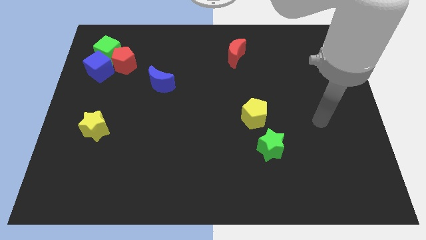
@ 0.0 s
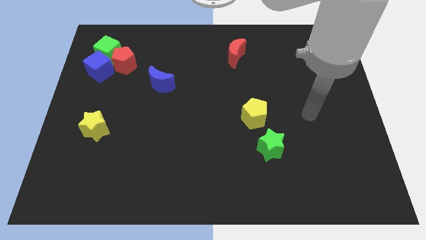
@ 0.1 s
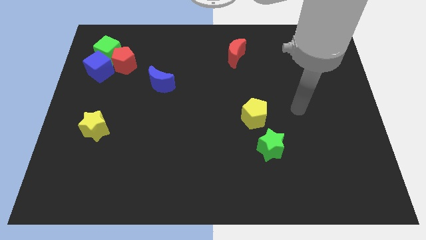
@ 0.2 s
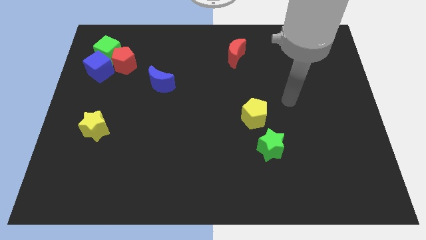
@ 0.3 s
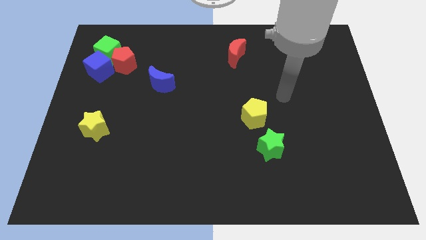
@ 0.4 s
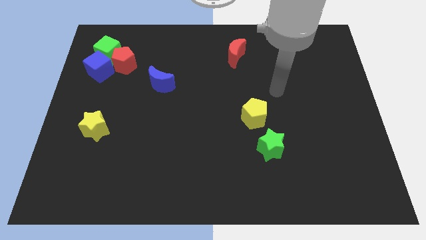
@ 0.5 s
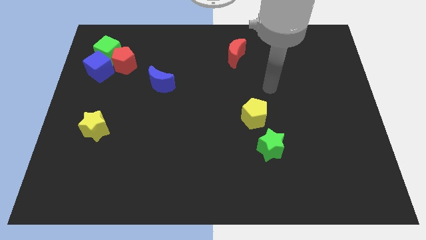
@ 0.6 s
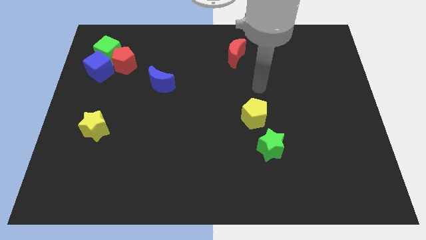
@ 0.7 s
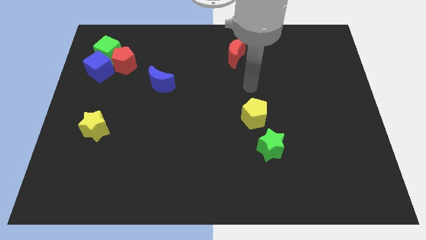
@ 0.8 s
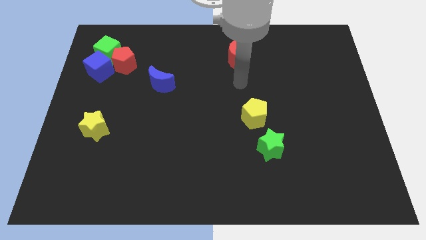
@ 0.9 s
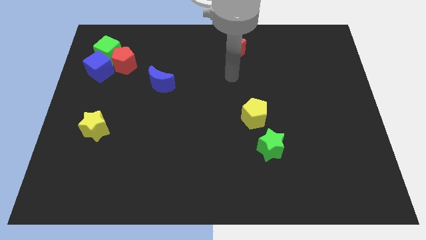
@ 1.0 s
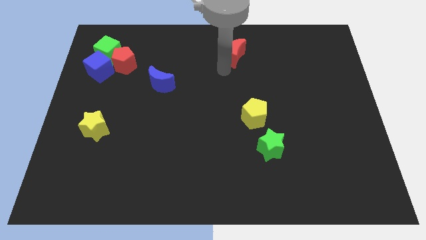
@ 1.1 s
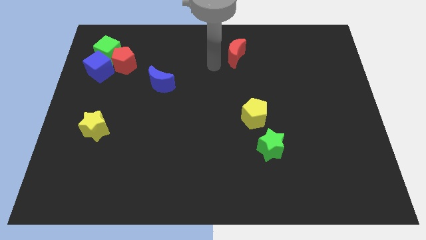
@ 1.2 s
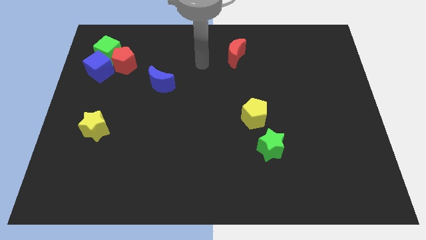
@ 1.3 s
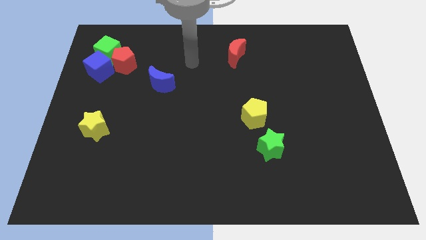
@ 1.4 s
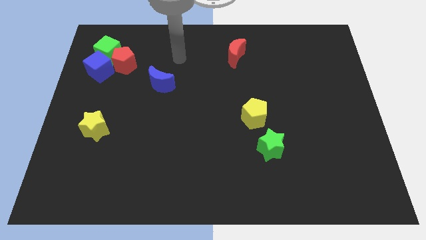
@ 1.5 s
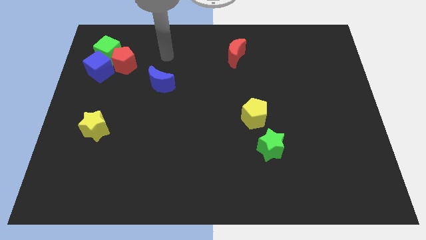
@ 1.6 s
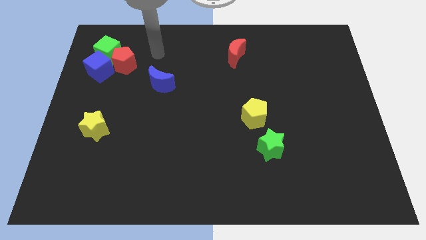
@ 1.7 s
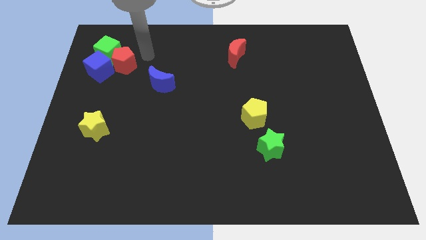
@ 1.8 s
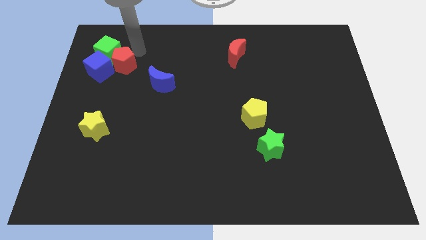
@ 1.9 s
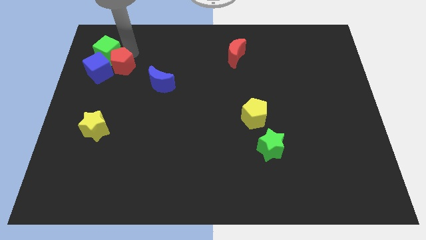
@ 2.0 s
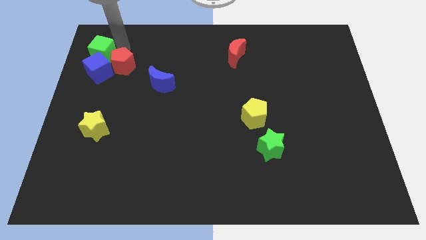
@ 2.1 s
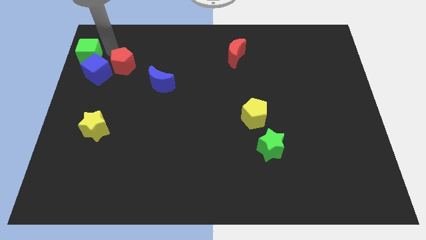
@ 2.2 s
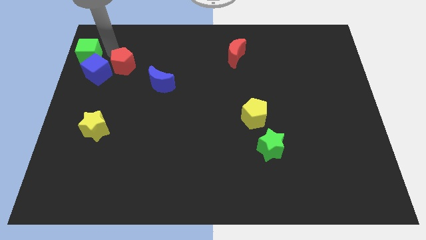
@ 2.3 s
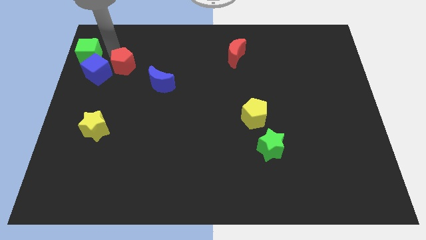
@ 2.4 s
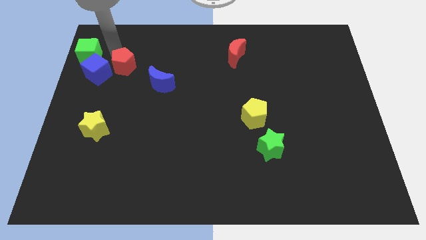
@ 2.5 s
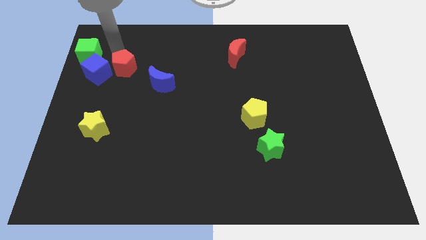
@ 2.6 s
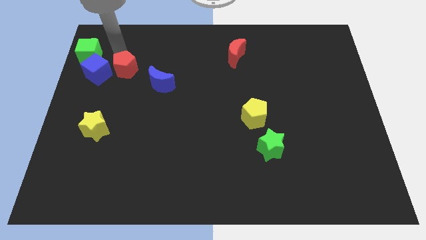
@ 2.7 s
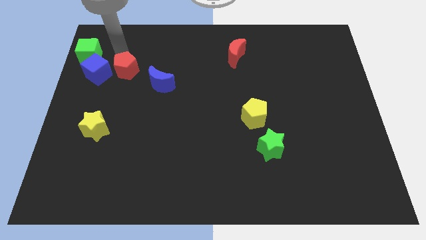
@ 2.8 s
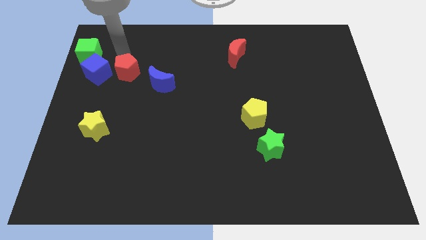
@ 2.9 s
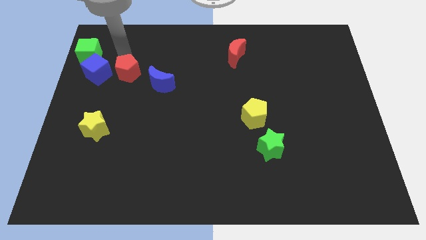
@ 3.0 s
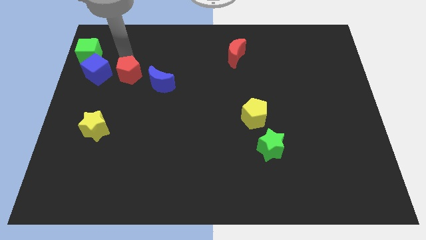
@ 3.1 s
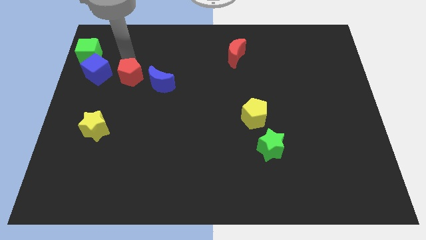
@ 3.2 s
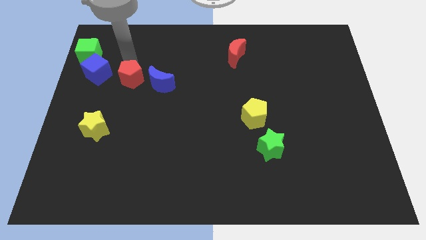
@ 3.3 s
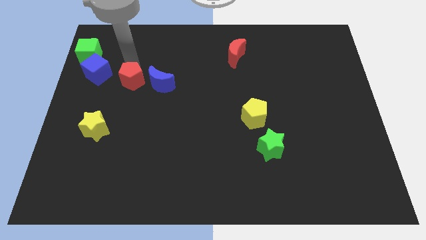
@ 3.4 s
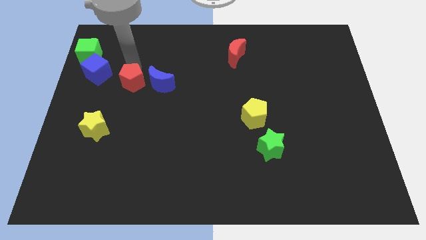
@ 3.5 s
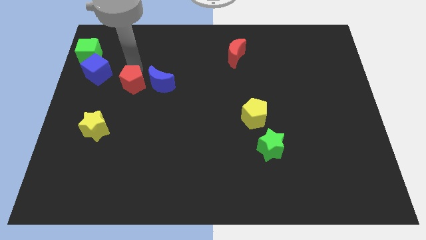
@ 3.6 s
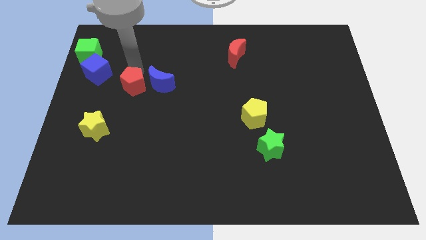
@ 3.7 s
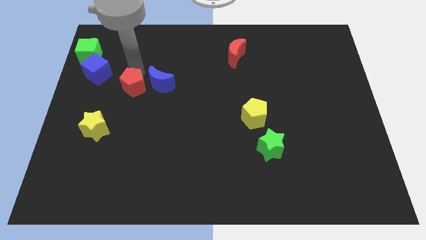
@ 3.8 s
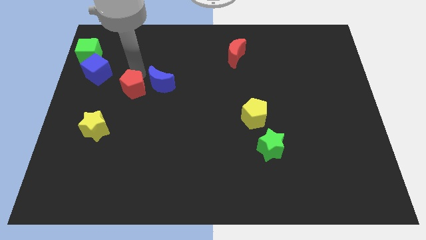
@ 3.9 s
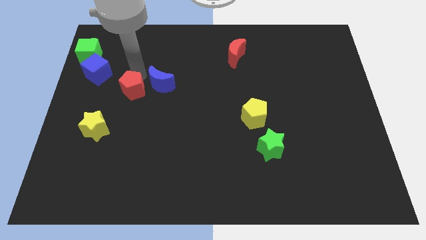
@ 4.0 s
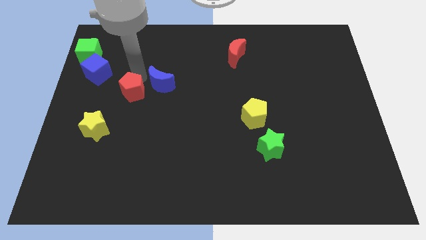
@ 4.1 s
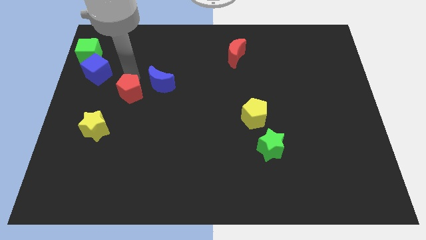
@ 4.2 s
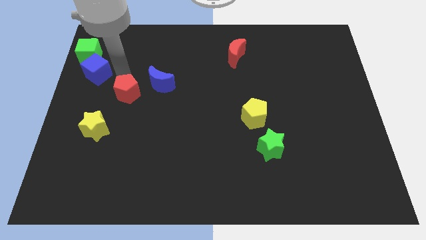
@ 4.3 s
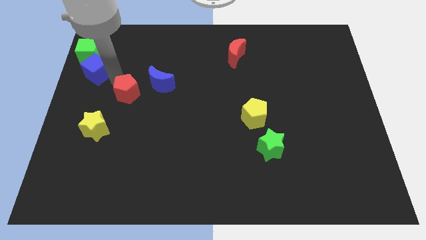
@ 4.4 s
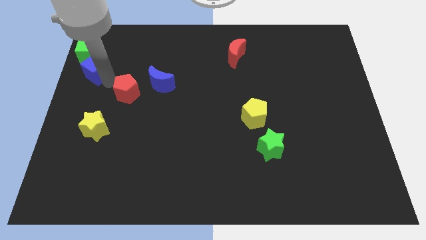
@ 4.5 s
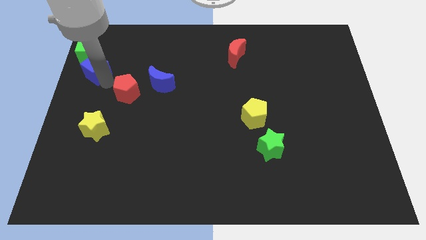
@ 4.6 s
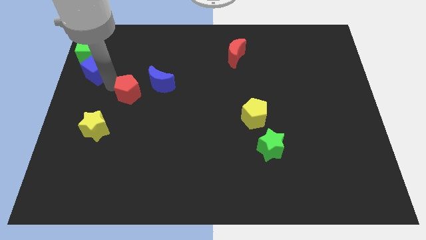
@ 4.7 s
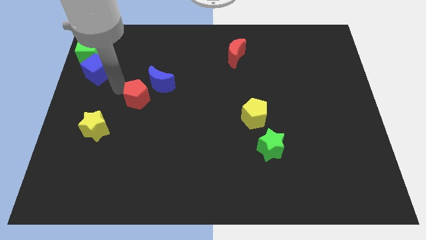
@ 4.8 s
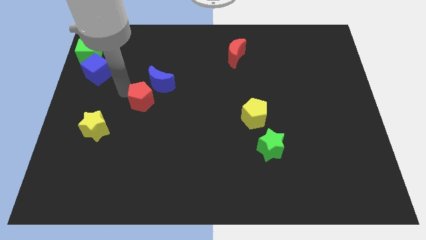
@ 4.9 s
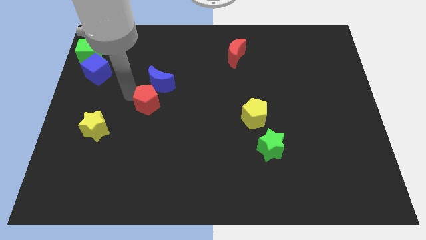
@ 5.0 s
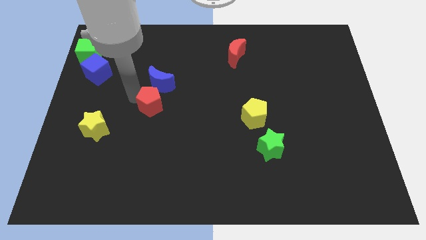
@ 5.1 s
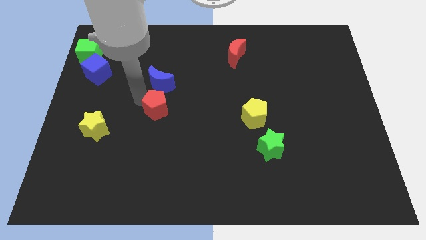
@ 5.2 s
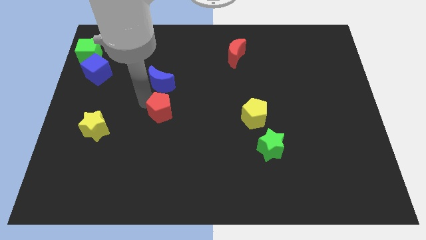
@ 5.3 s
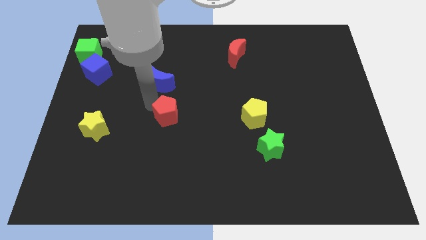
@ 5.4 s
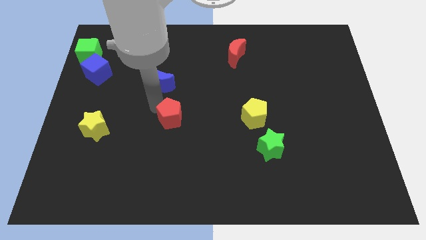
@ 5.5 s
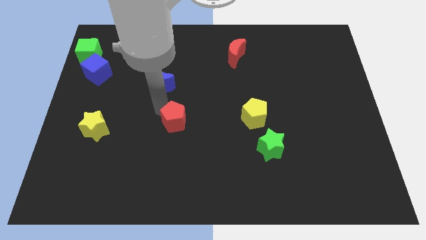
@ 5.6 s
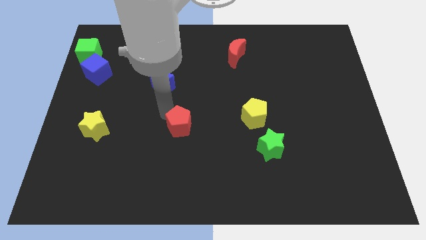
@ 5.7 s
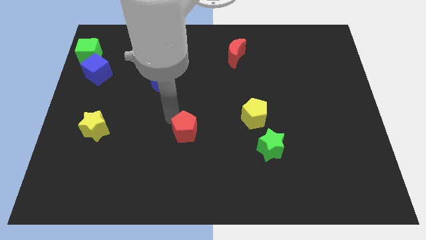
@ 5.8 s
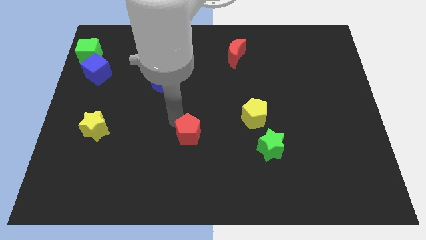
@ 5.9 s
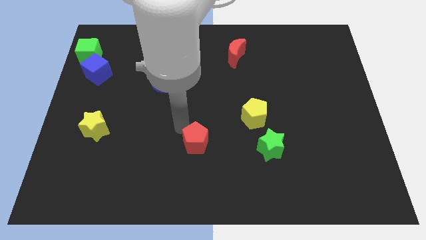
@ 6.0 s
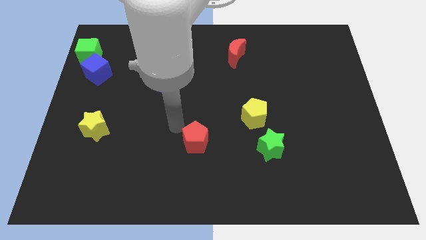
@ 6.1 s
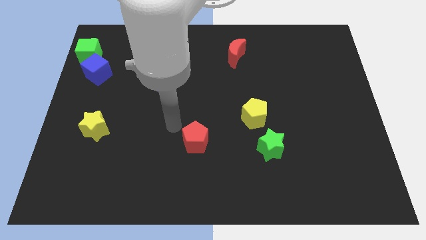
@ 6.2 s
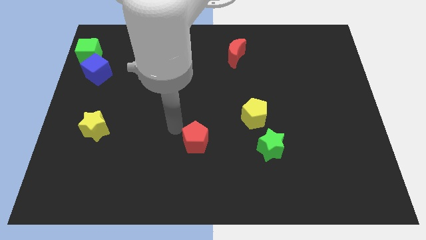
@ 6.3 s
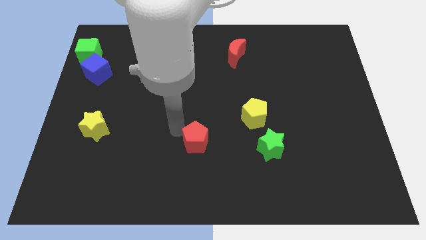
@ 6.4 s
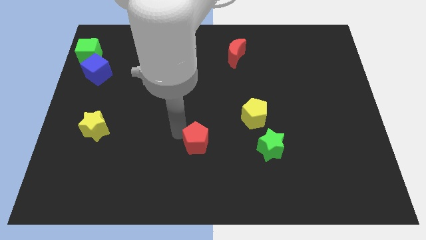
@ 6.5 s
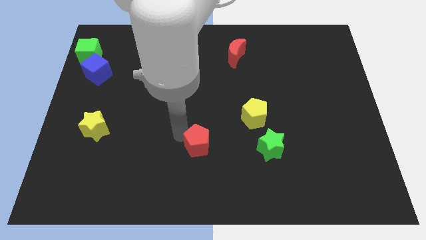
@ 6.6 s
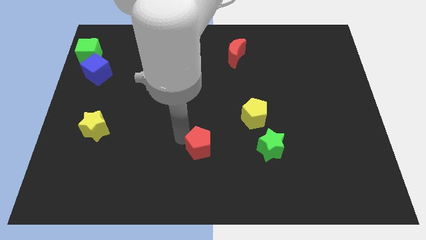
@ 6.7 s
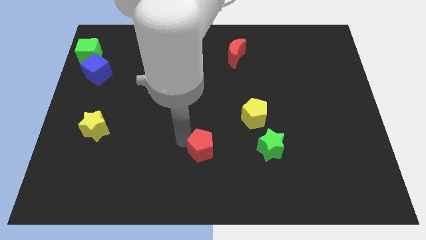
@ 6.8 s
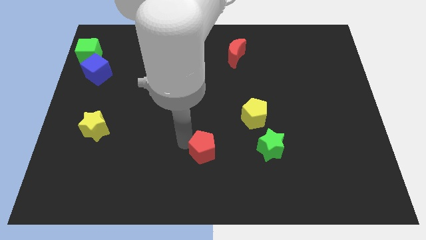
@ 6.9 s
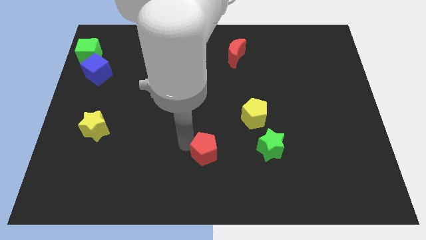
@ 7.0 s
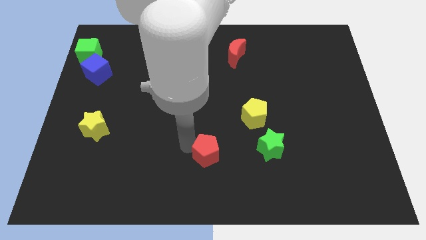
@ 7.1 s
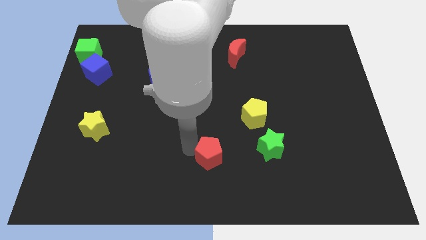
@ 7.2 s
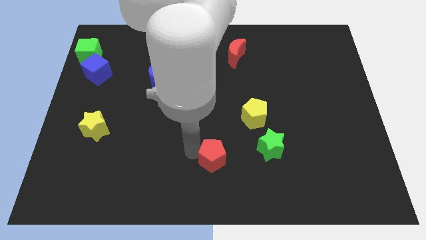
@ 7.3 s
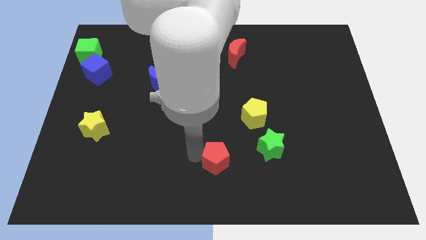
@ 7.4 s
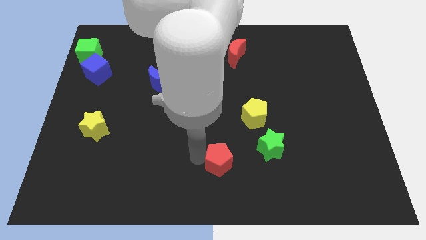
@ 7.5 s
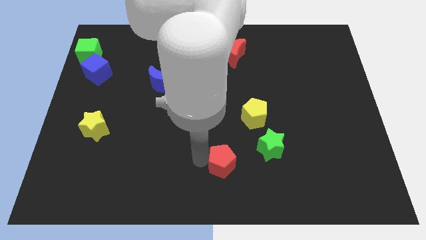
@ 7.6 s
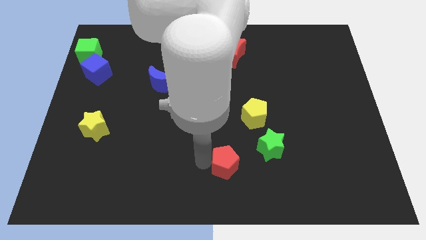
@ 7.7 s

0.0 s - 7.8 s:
push the red pentagon to the bottom left side of the green star
